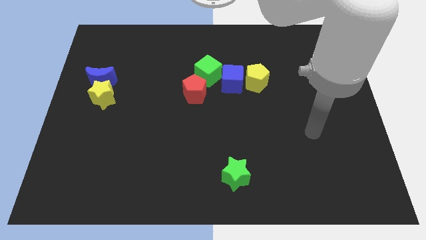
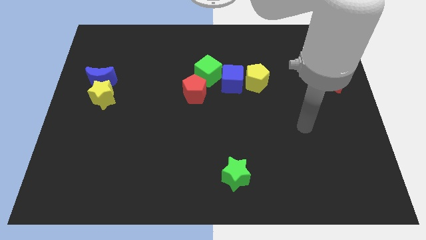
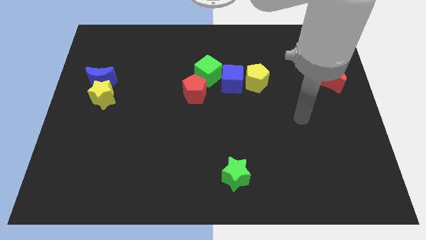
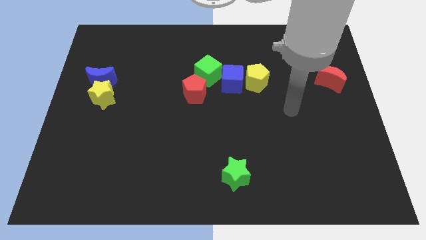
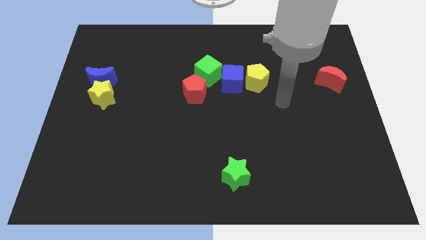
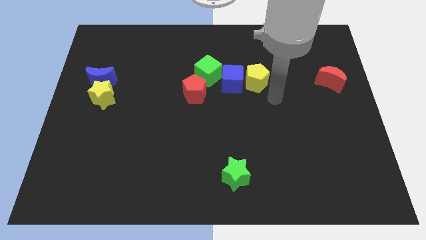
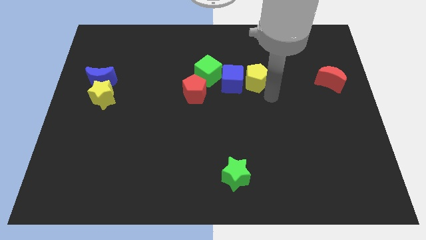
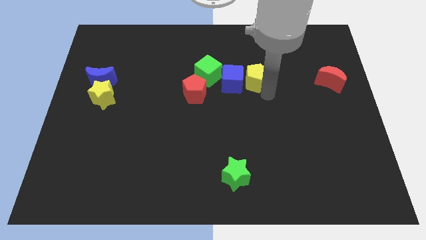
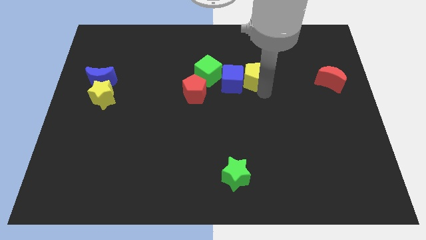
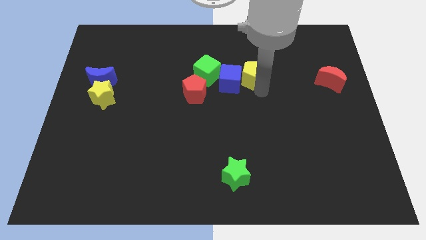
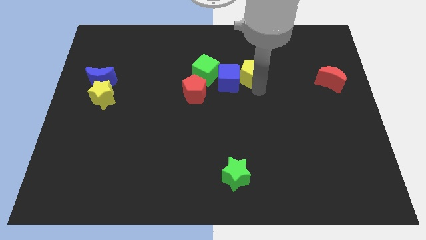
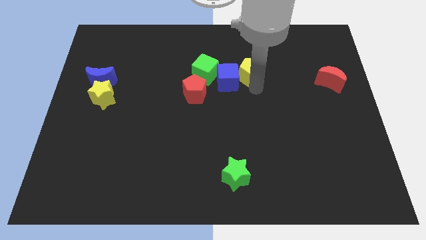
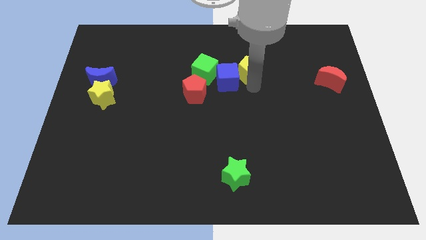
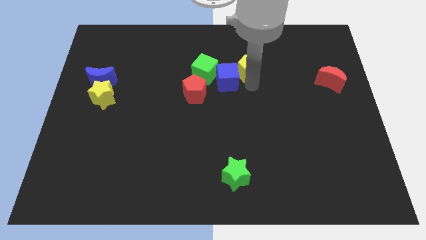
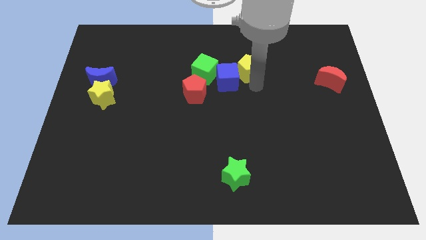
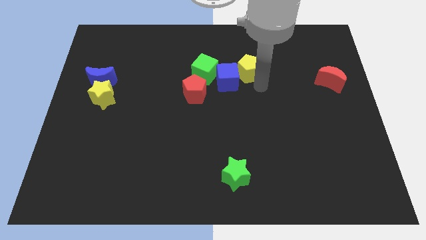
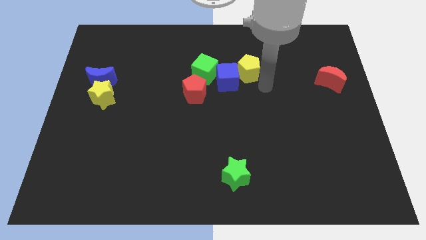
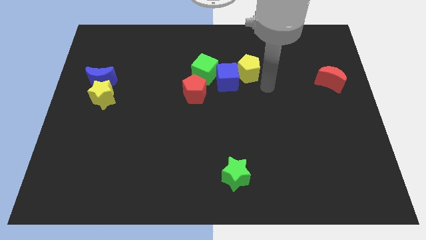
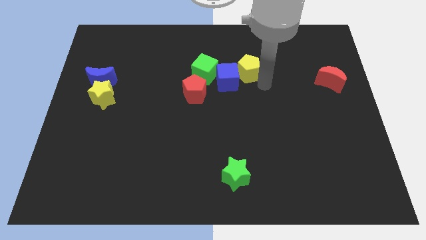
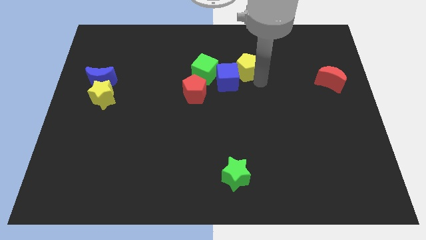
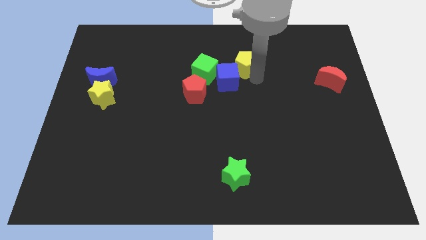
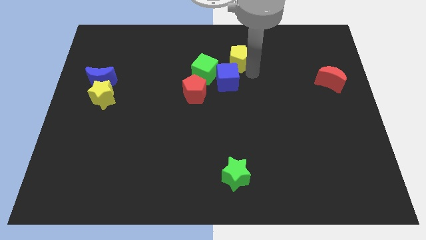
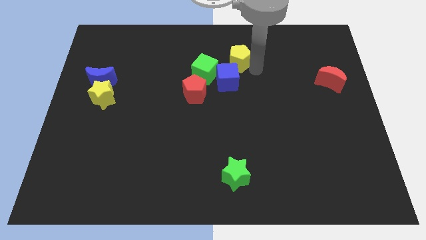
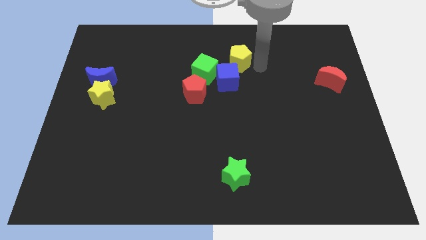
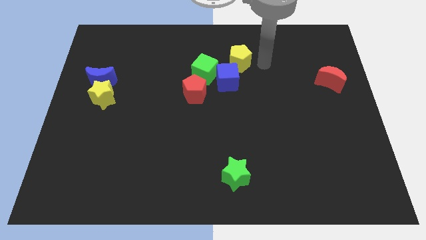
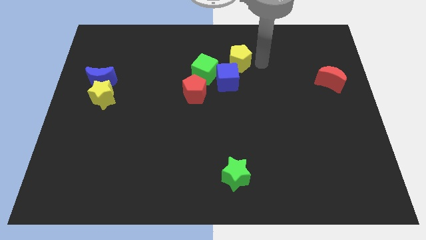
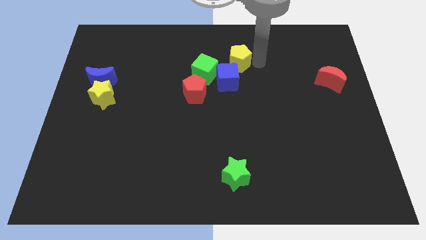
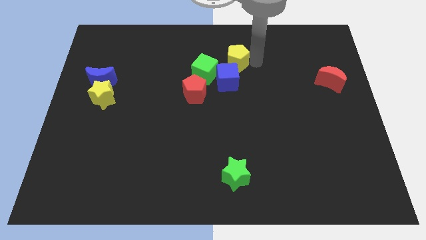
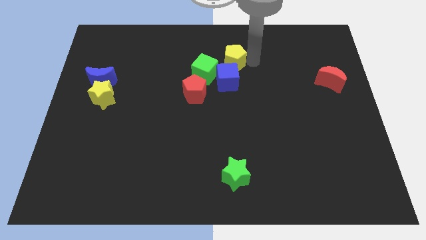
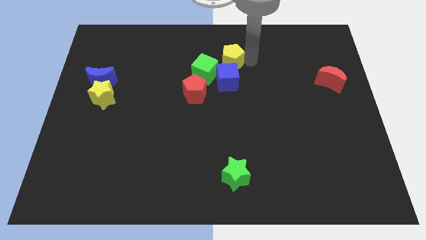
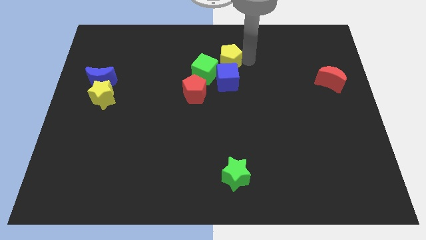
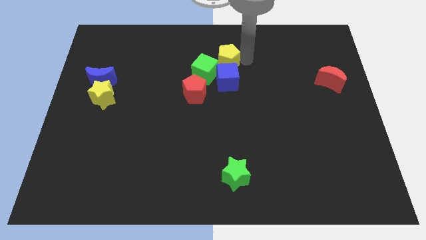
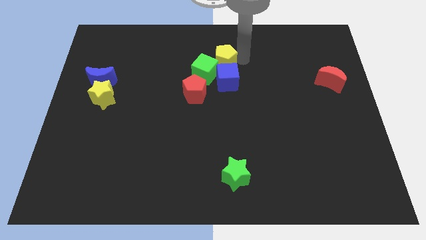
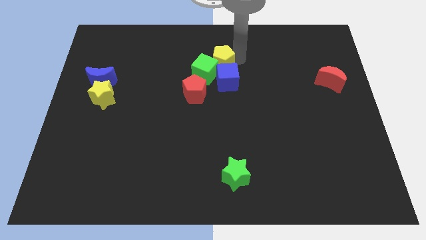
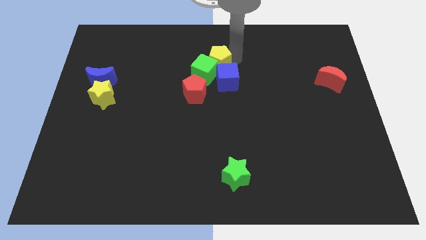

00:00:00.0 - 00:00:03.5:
move the yellow pentagon a little bit left

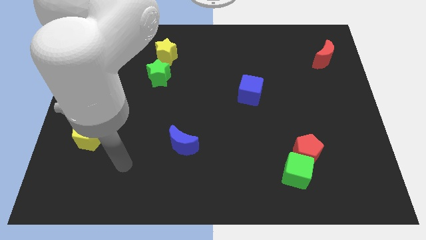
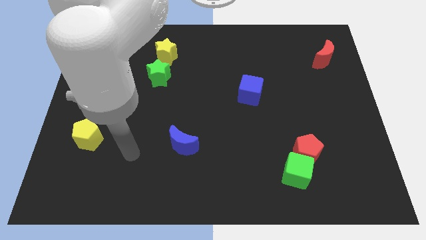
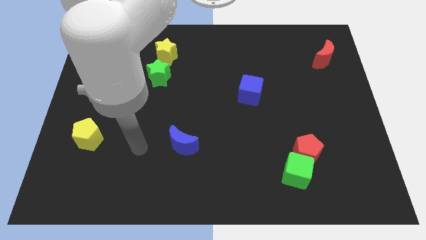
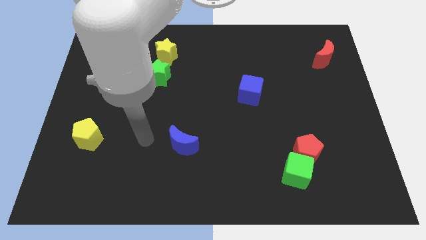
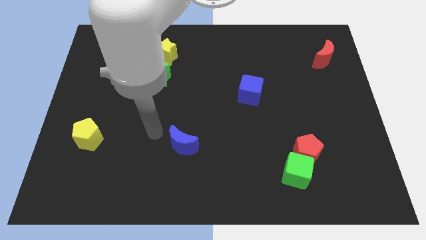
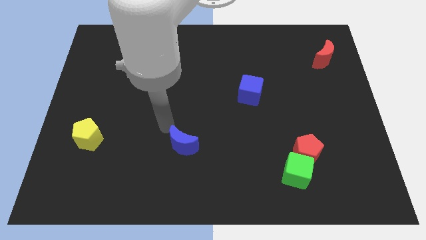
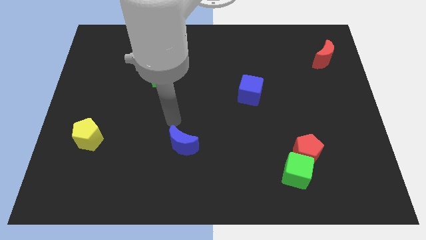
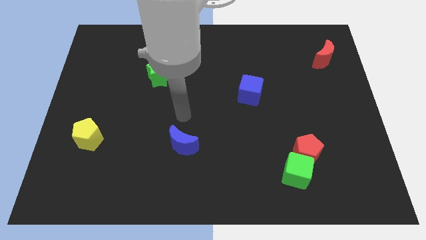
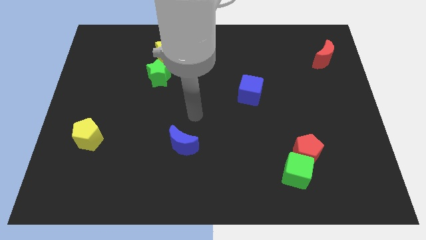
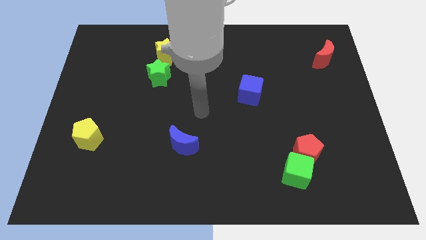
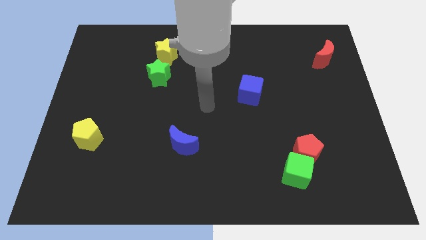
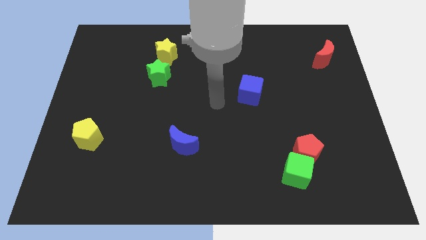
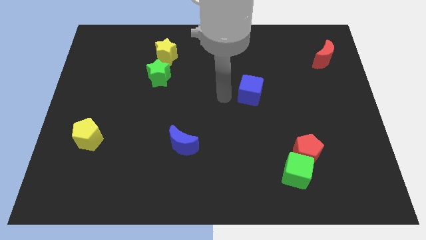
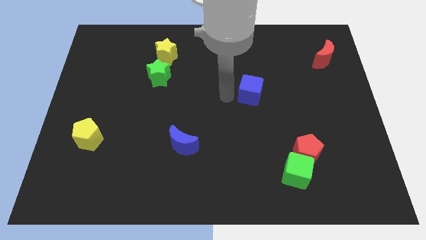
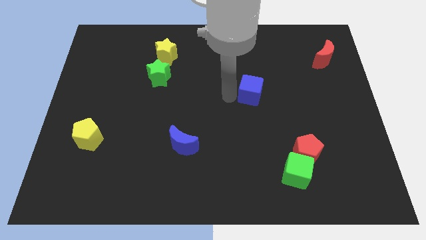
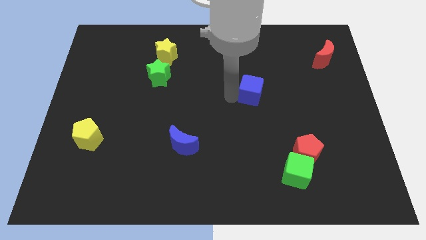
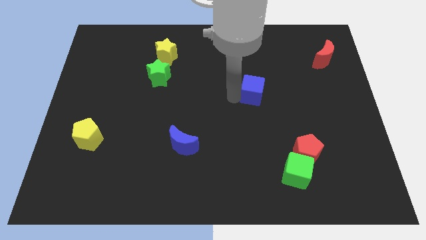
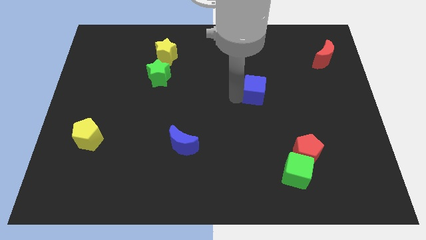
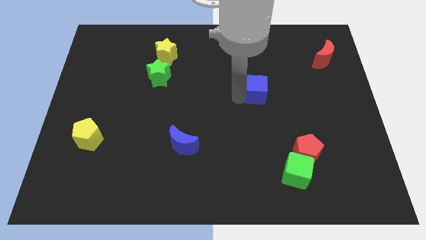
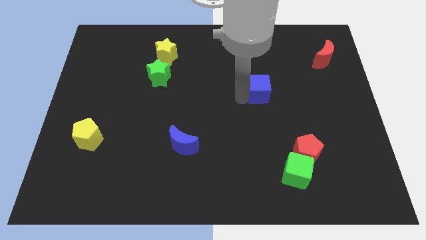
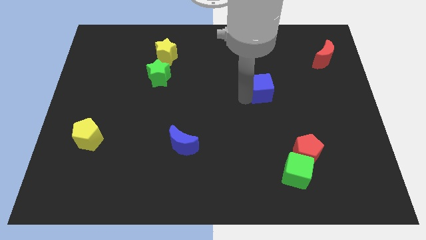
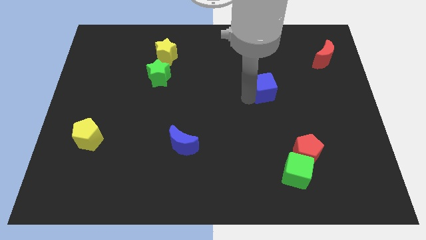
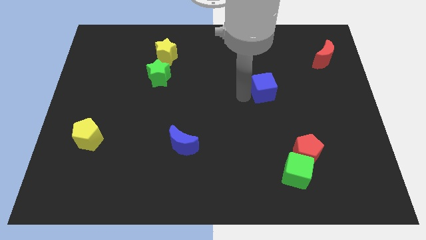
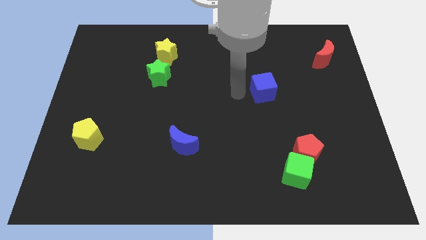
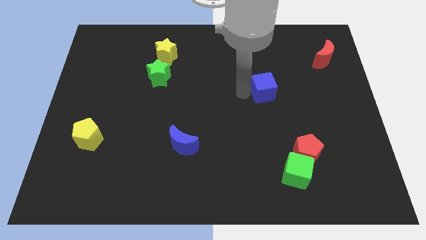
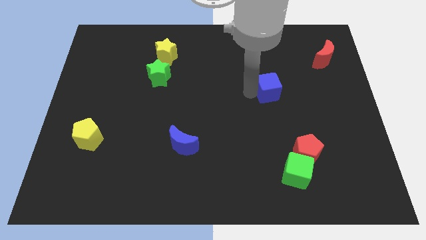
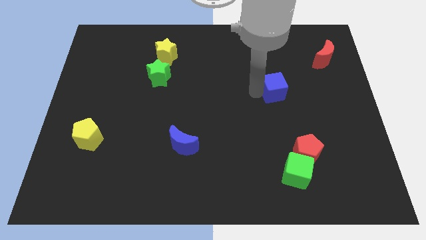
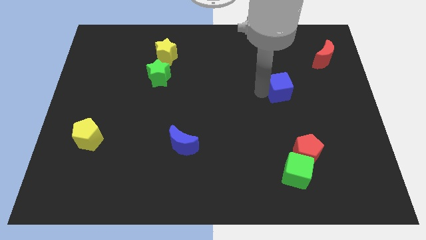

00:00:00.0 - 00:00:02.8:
slide the blue cube slightly right

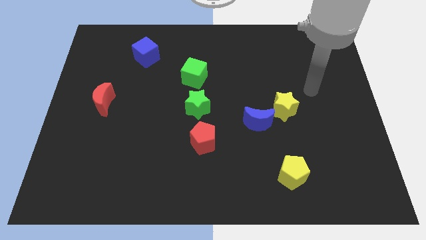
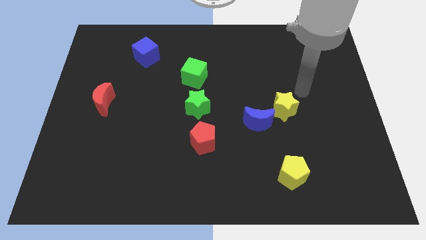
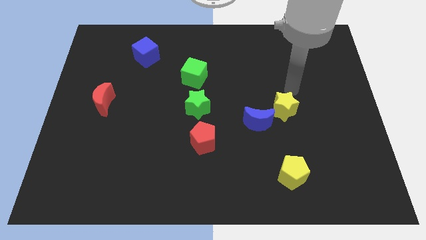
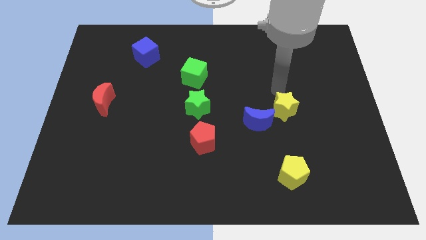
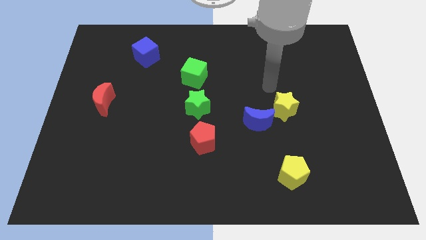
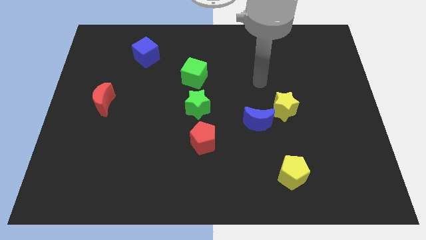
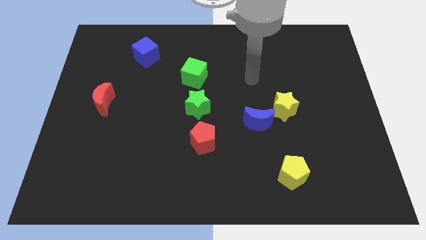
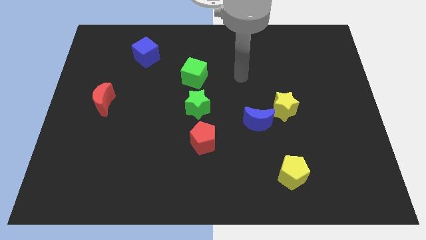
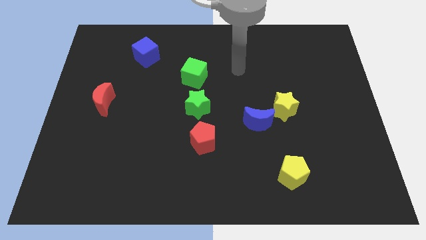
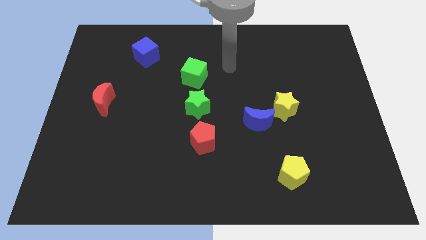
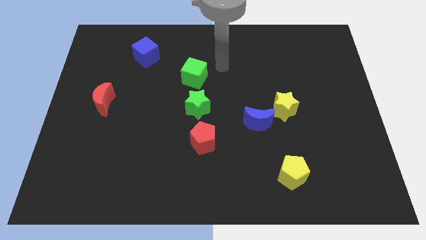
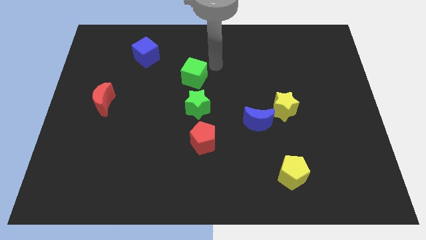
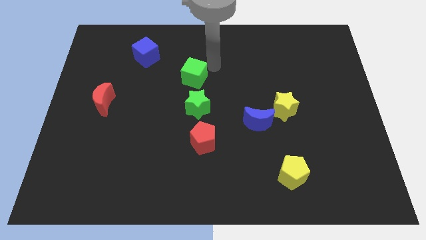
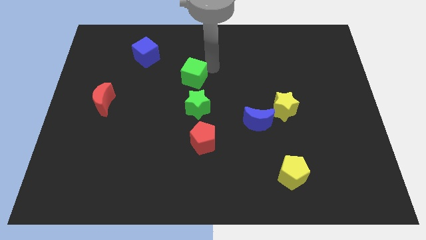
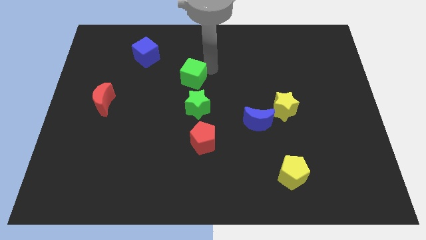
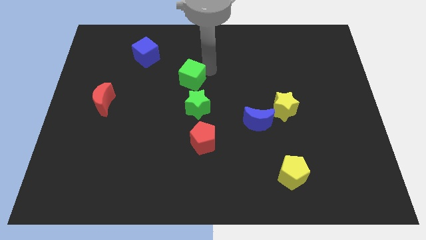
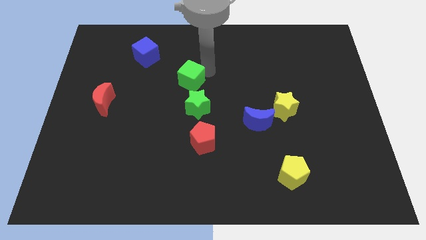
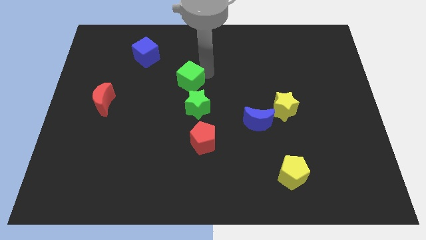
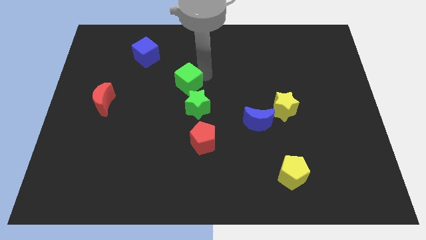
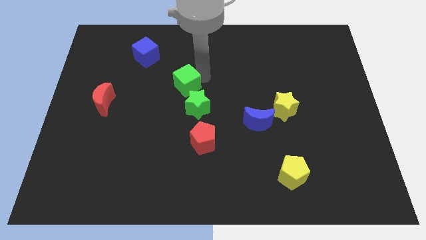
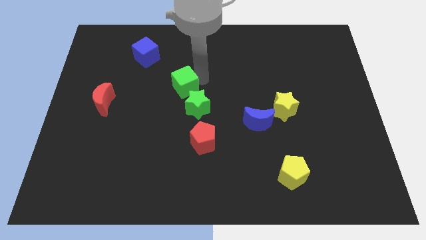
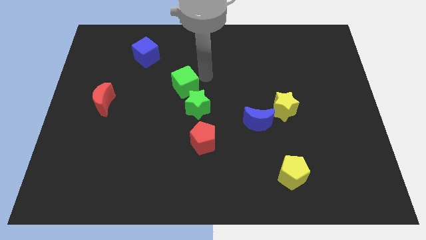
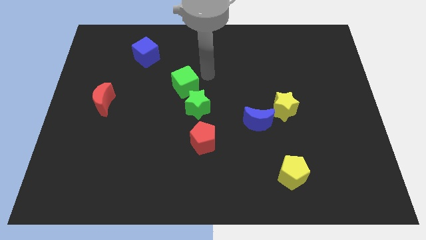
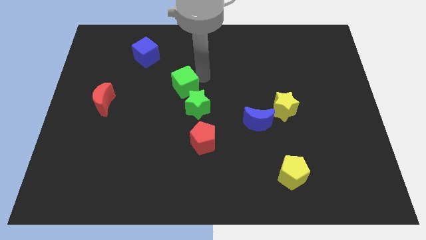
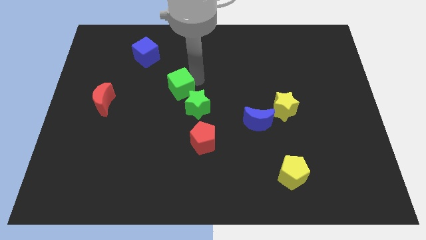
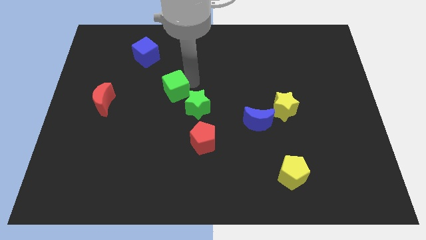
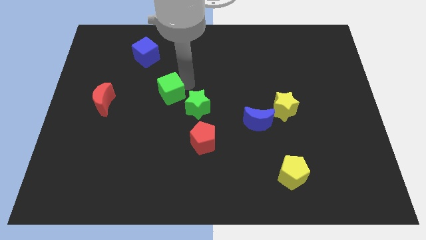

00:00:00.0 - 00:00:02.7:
slide the green cube somewhat down and to the left
